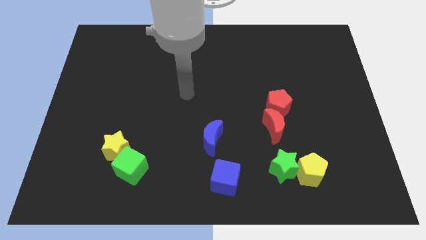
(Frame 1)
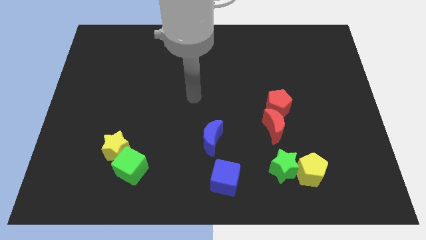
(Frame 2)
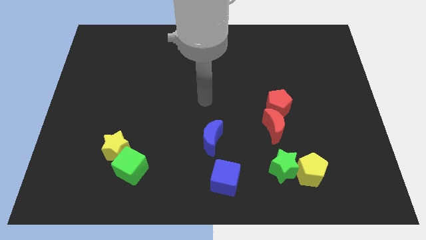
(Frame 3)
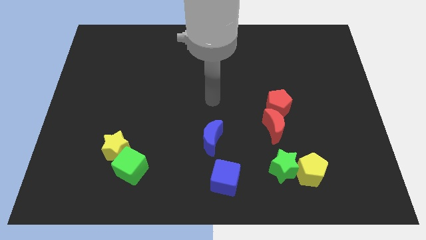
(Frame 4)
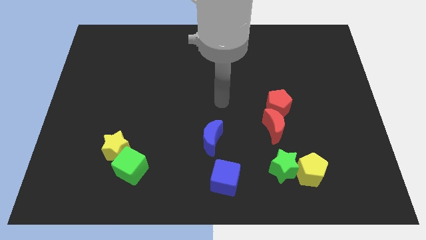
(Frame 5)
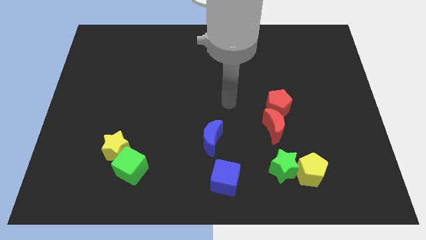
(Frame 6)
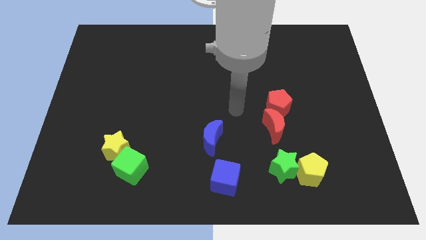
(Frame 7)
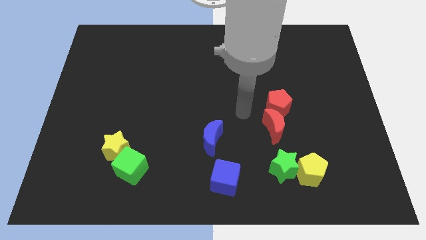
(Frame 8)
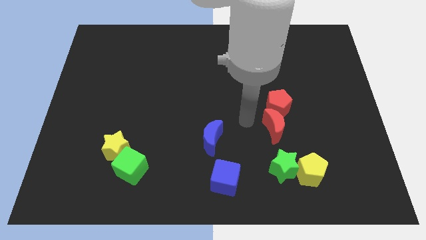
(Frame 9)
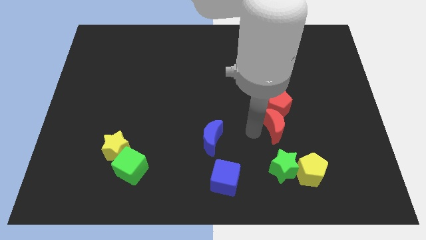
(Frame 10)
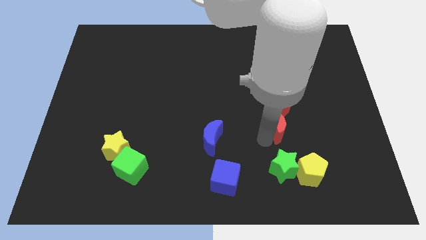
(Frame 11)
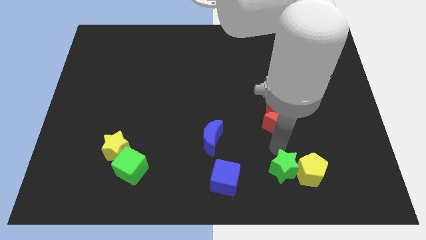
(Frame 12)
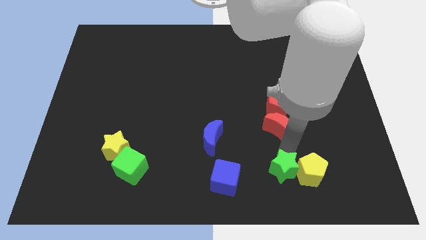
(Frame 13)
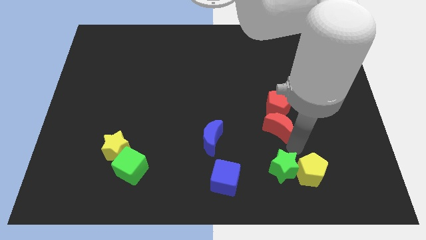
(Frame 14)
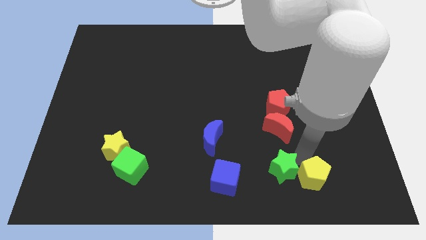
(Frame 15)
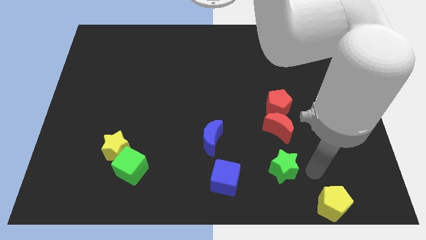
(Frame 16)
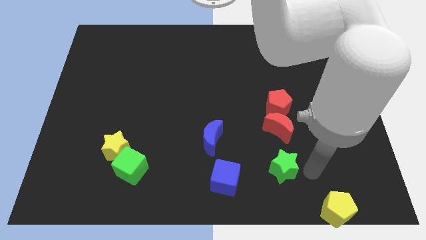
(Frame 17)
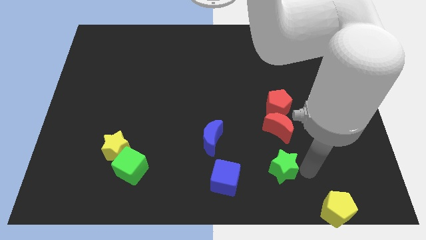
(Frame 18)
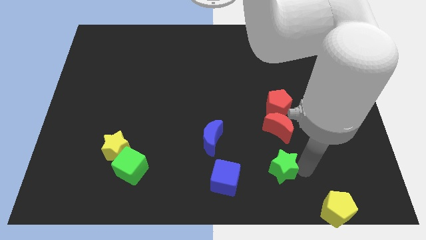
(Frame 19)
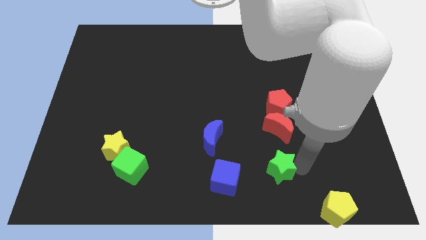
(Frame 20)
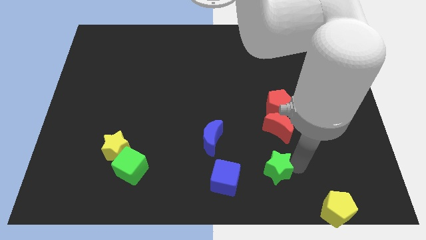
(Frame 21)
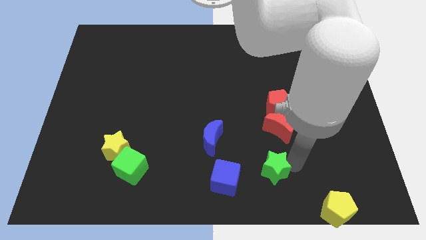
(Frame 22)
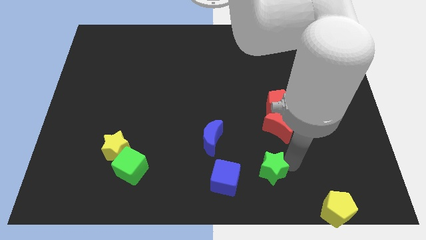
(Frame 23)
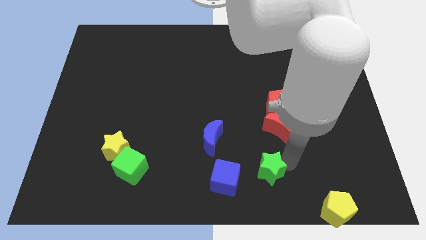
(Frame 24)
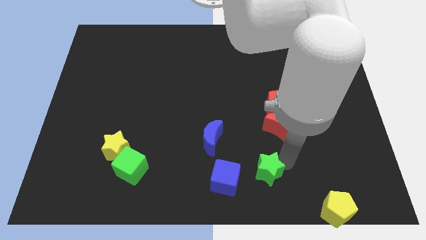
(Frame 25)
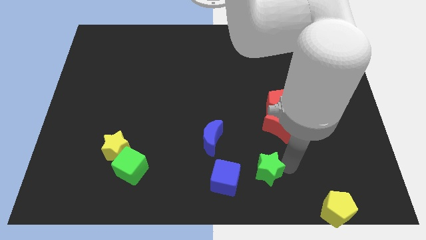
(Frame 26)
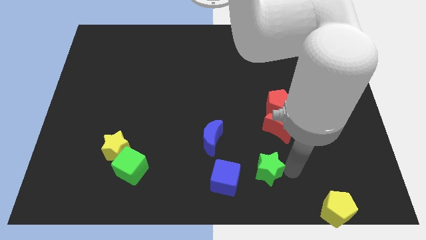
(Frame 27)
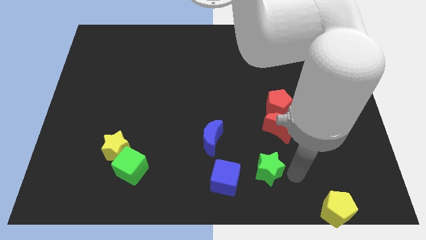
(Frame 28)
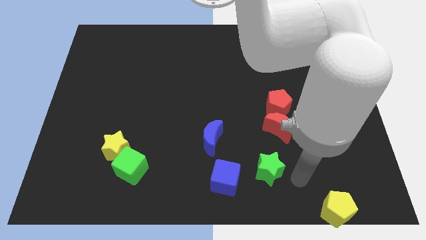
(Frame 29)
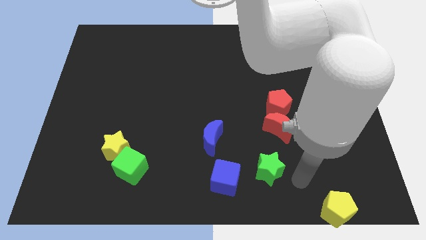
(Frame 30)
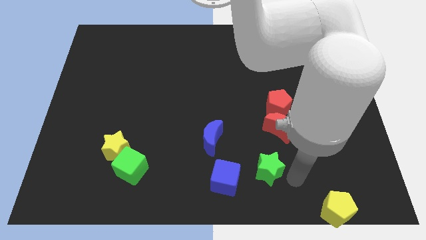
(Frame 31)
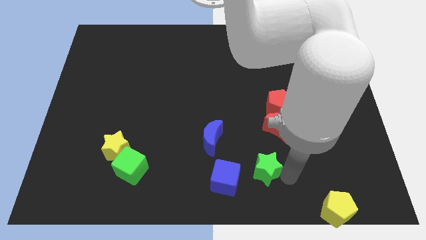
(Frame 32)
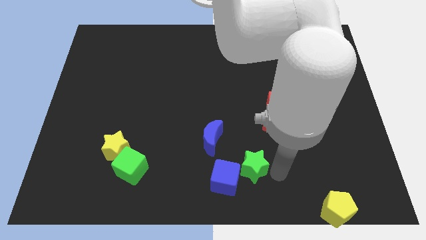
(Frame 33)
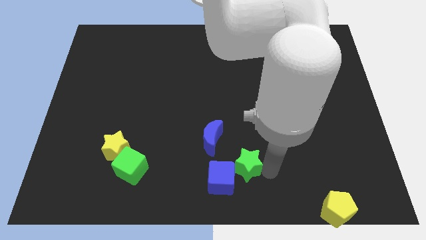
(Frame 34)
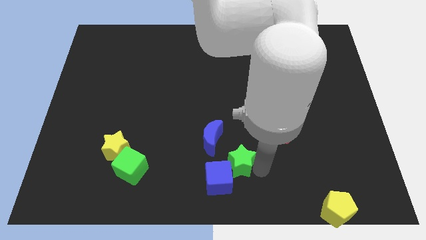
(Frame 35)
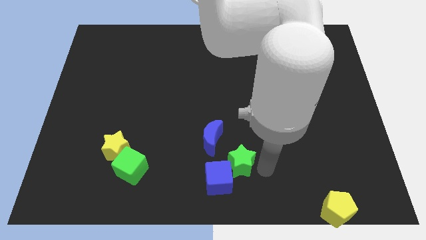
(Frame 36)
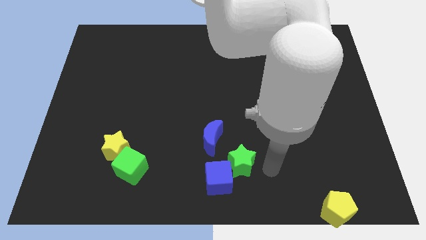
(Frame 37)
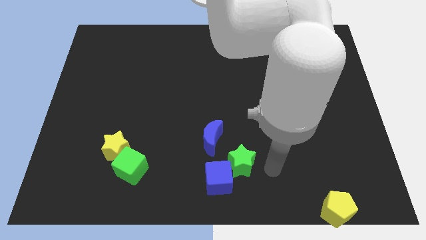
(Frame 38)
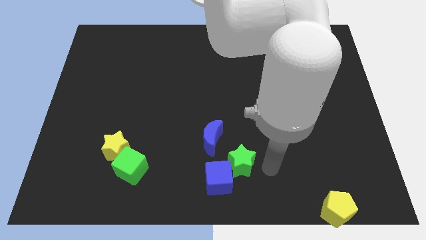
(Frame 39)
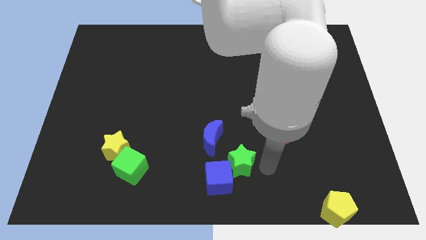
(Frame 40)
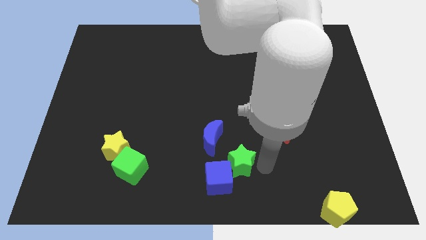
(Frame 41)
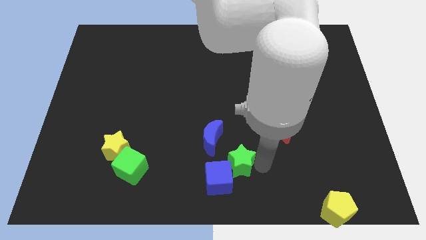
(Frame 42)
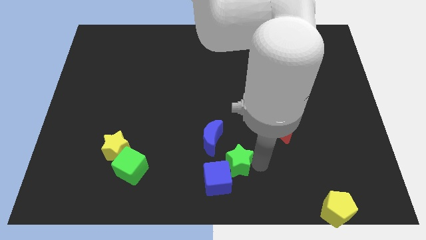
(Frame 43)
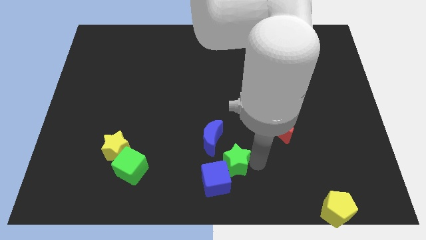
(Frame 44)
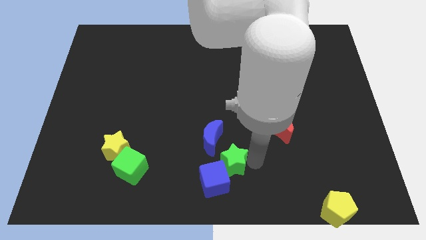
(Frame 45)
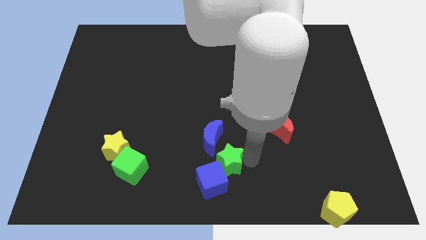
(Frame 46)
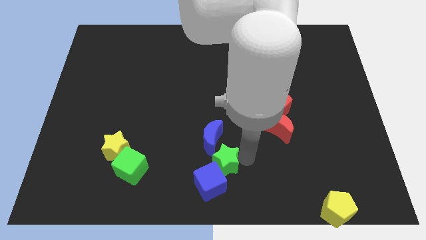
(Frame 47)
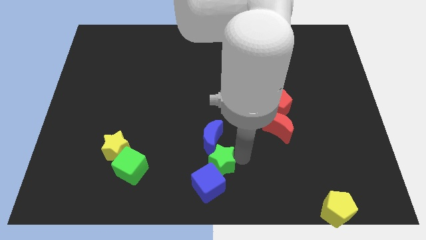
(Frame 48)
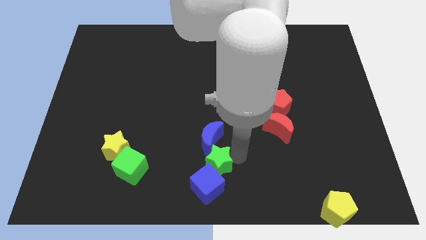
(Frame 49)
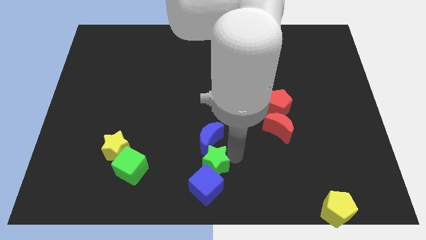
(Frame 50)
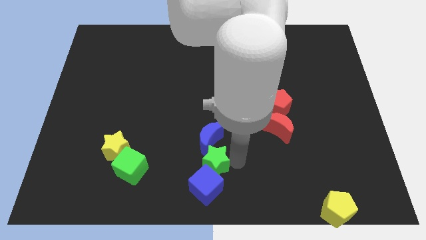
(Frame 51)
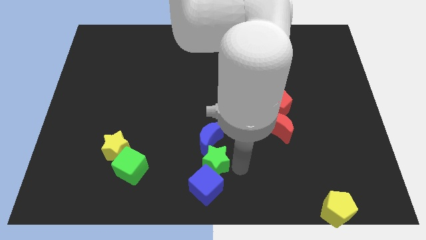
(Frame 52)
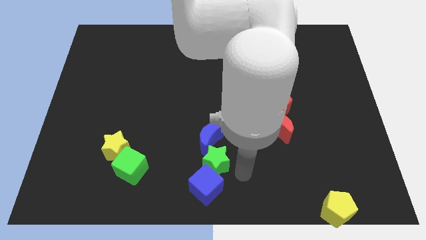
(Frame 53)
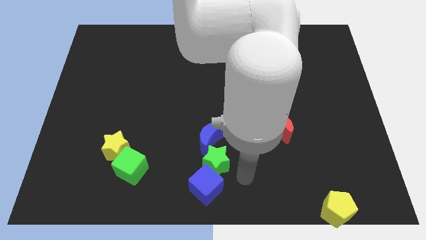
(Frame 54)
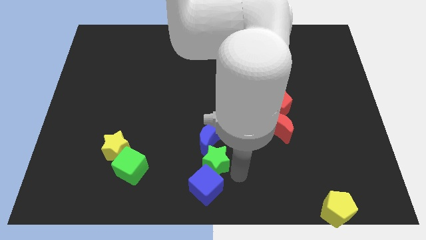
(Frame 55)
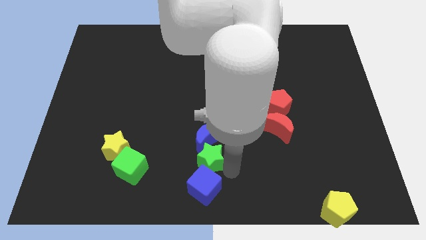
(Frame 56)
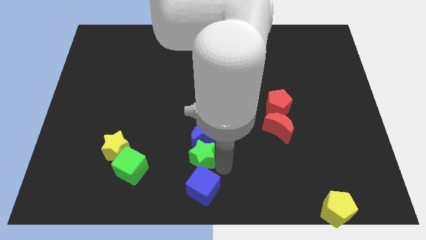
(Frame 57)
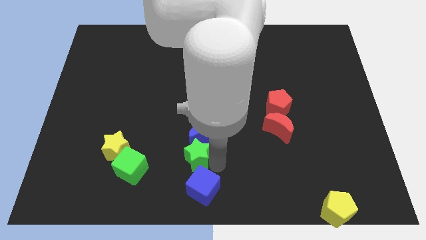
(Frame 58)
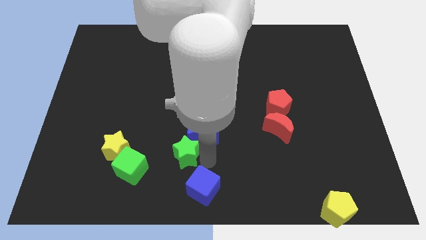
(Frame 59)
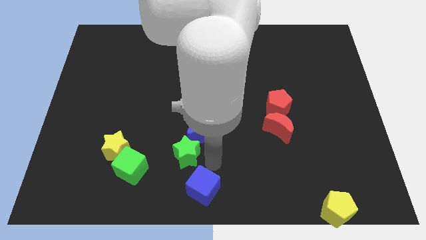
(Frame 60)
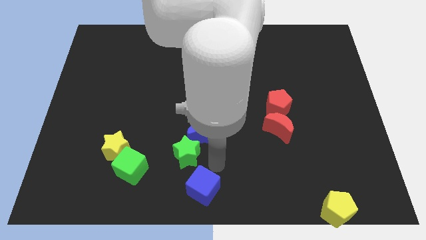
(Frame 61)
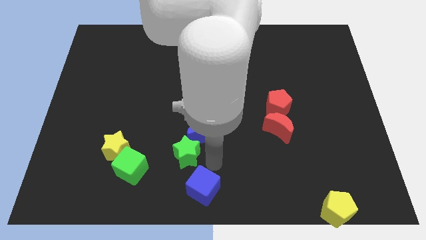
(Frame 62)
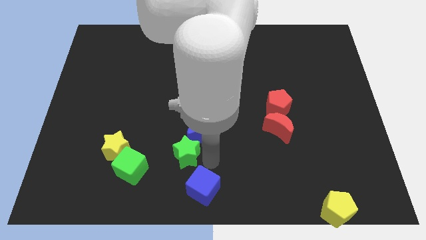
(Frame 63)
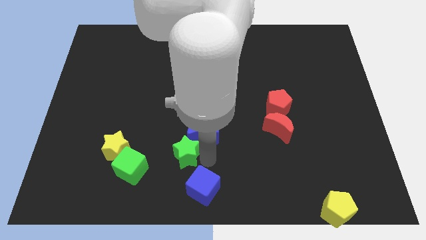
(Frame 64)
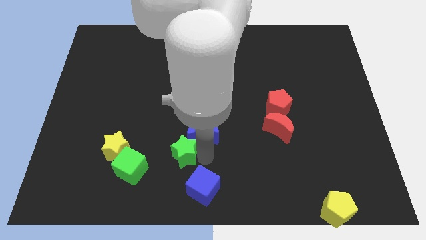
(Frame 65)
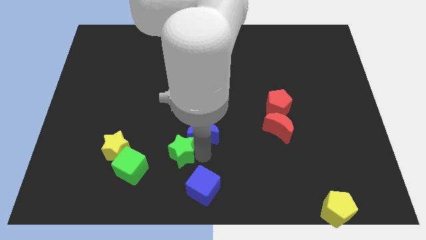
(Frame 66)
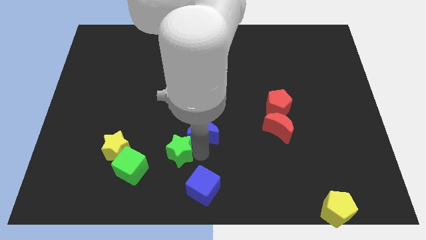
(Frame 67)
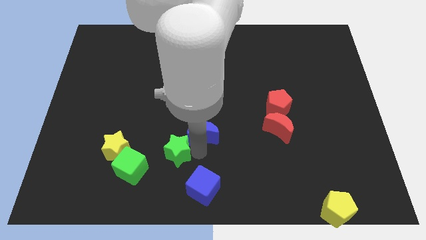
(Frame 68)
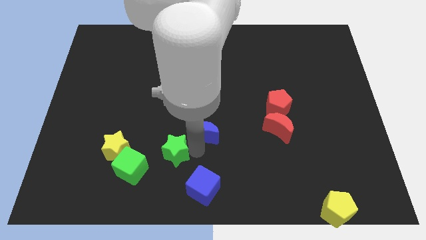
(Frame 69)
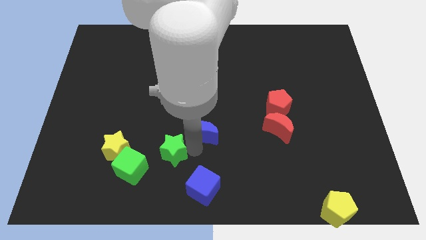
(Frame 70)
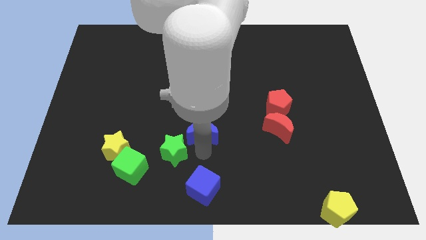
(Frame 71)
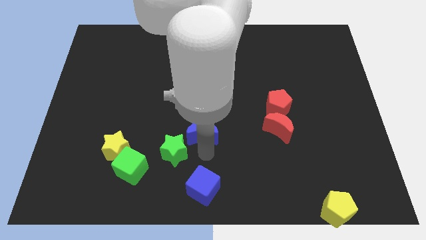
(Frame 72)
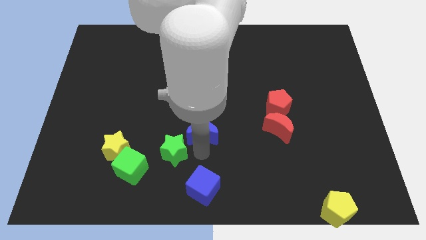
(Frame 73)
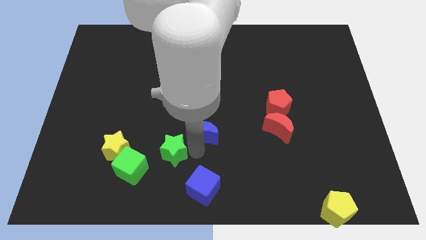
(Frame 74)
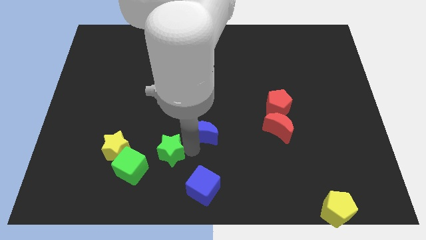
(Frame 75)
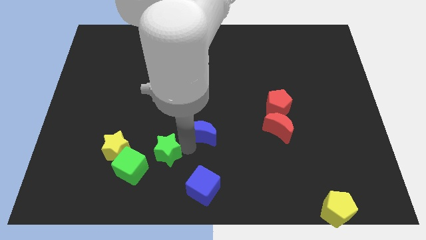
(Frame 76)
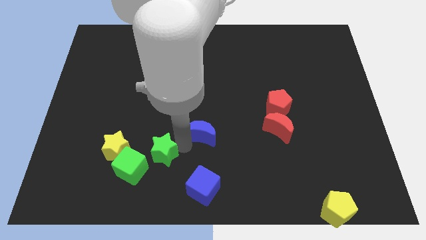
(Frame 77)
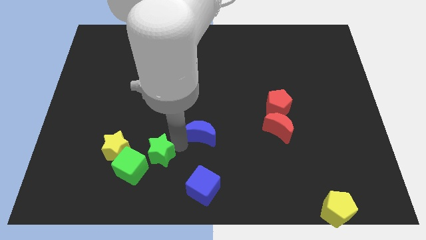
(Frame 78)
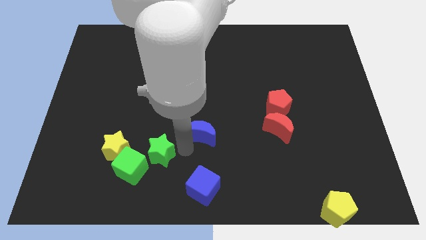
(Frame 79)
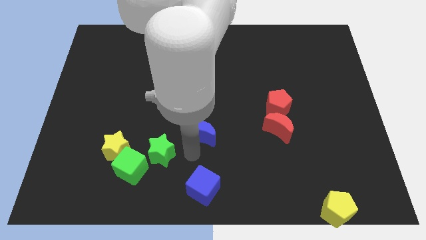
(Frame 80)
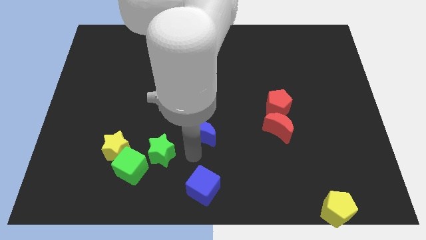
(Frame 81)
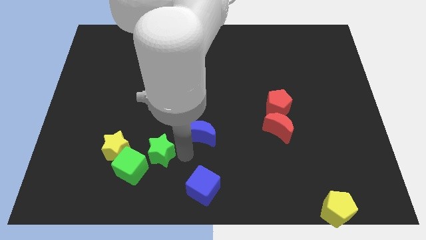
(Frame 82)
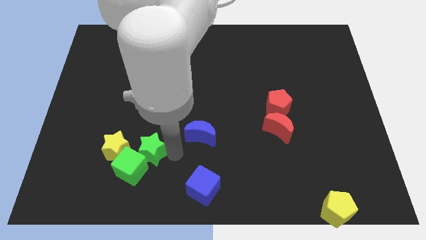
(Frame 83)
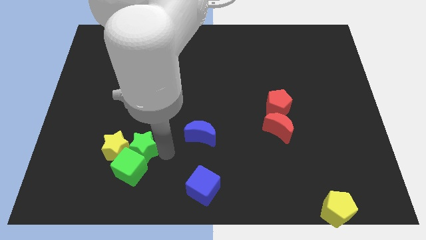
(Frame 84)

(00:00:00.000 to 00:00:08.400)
move the green star close to the yellow star
